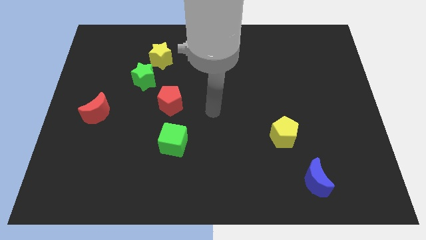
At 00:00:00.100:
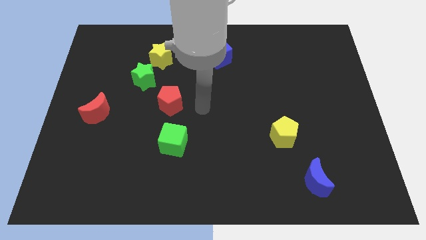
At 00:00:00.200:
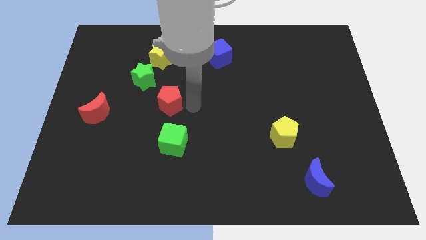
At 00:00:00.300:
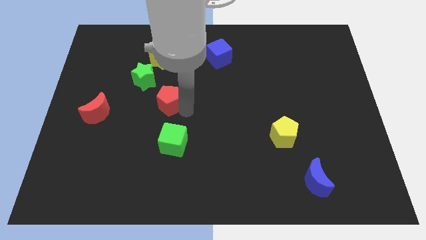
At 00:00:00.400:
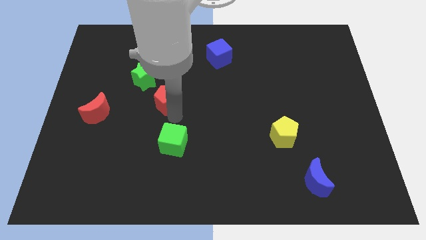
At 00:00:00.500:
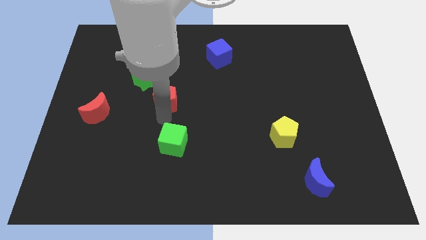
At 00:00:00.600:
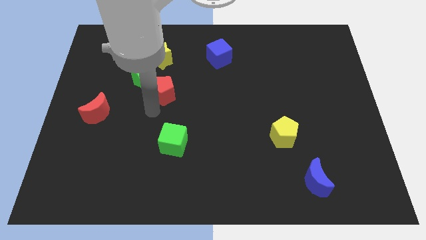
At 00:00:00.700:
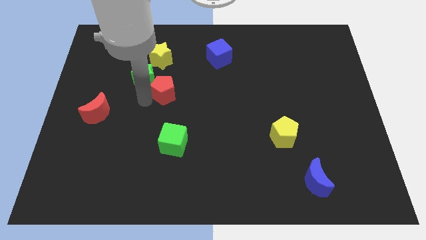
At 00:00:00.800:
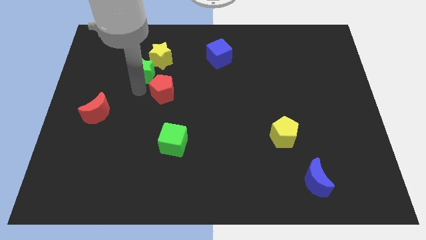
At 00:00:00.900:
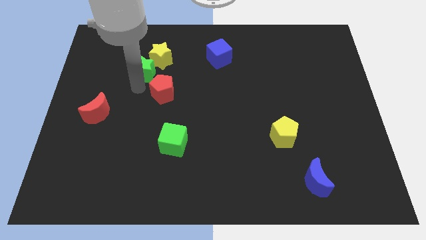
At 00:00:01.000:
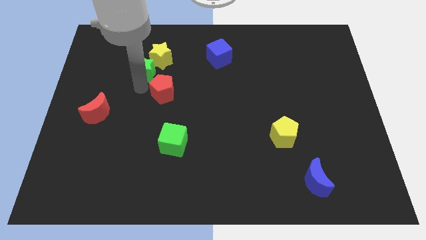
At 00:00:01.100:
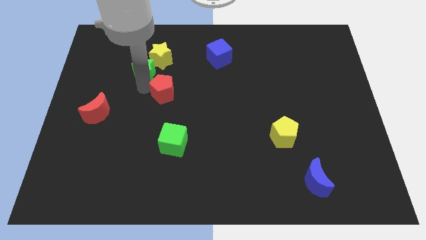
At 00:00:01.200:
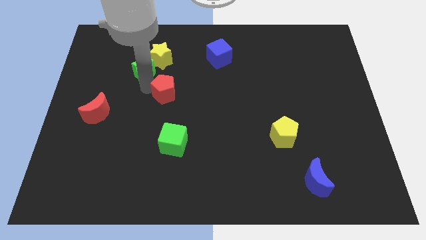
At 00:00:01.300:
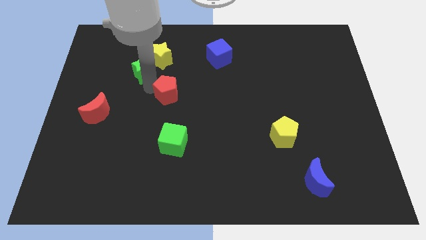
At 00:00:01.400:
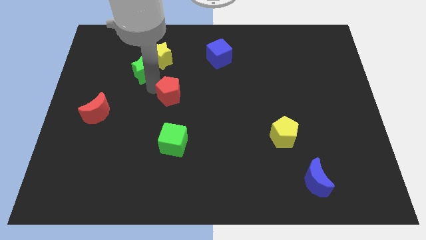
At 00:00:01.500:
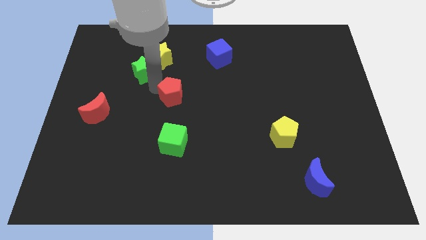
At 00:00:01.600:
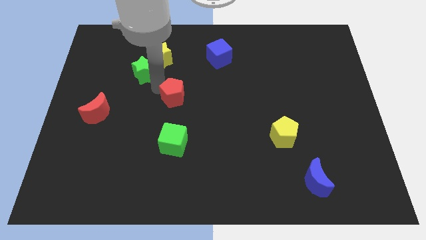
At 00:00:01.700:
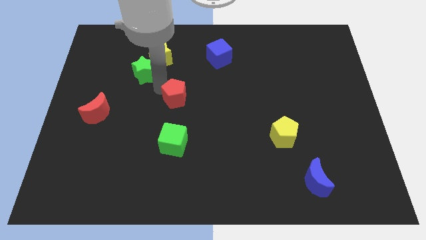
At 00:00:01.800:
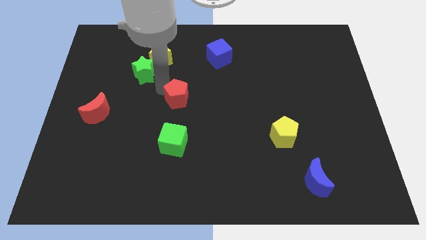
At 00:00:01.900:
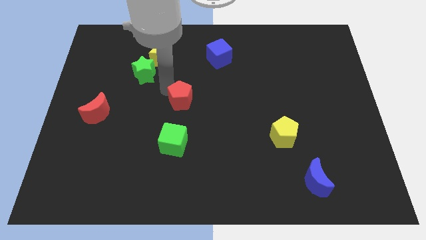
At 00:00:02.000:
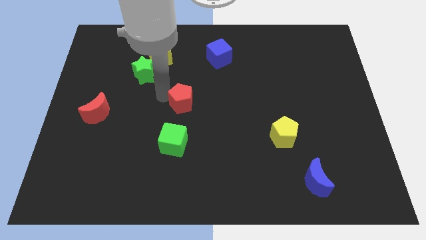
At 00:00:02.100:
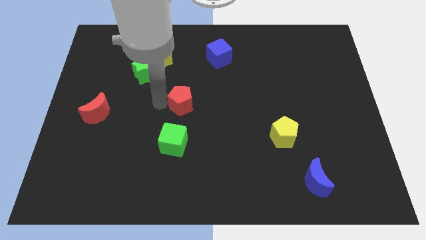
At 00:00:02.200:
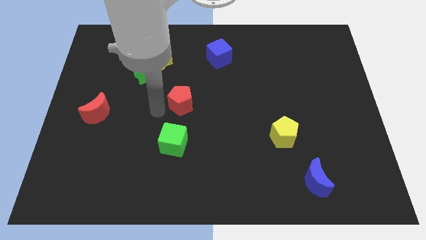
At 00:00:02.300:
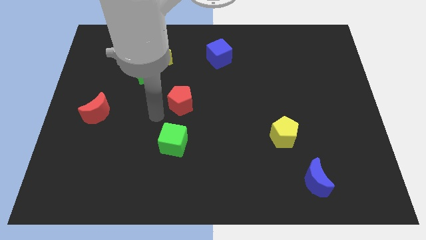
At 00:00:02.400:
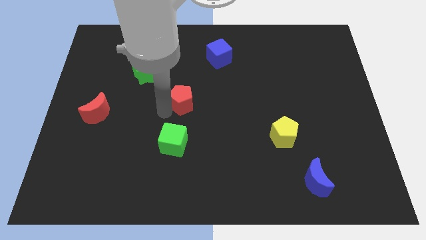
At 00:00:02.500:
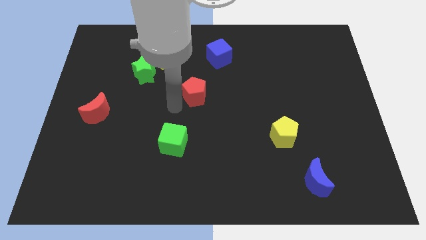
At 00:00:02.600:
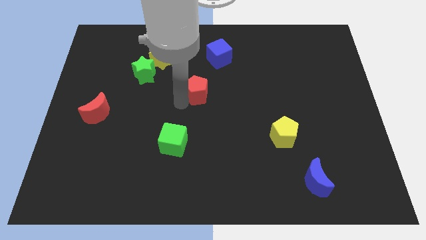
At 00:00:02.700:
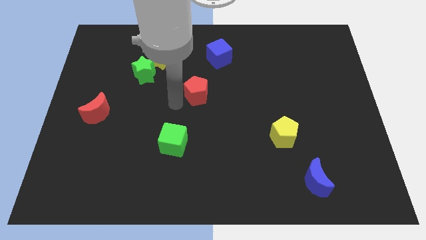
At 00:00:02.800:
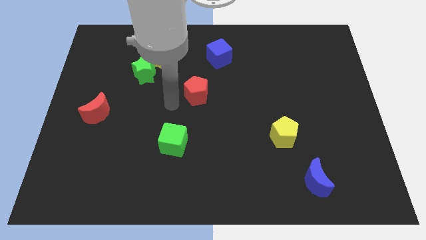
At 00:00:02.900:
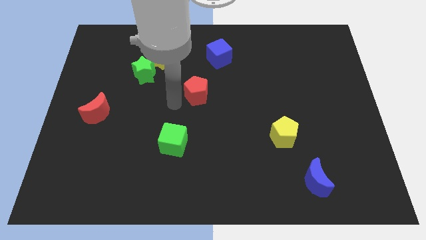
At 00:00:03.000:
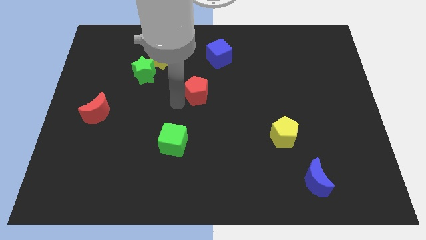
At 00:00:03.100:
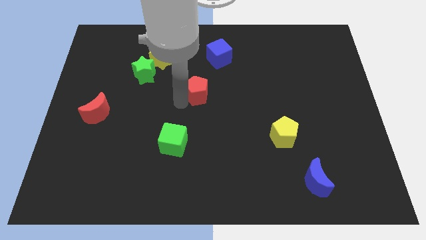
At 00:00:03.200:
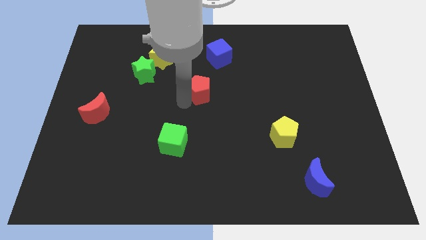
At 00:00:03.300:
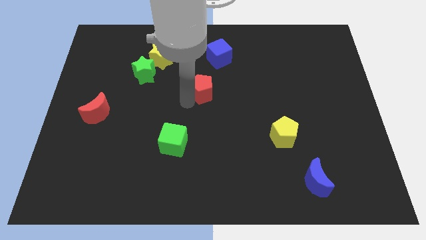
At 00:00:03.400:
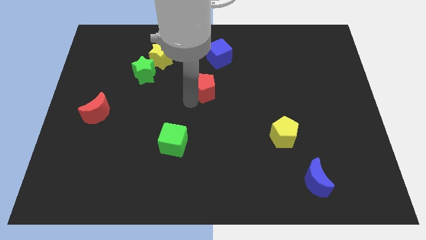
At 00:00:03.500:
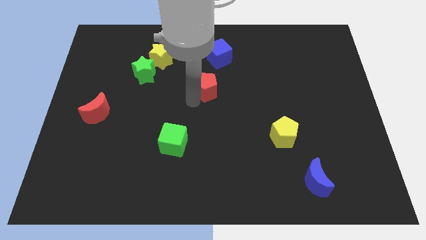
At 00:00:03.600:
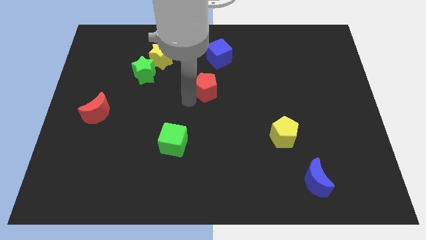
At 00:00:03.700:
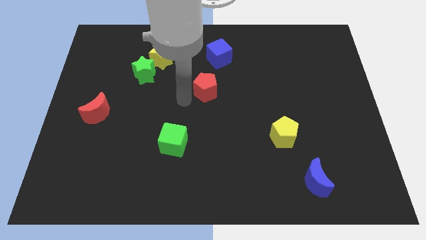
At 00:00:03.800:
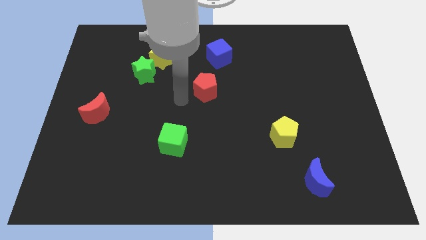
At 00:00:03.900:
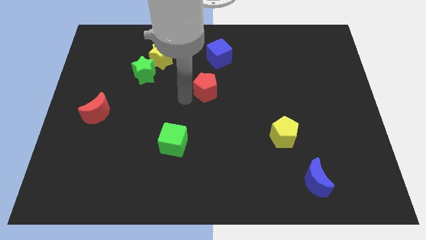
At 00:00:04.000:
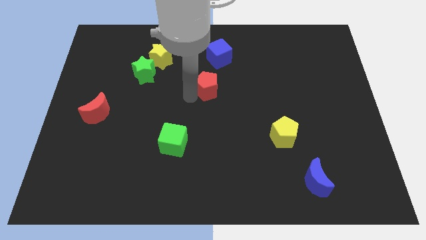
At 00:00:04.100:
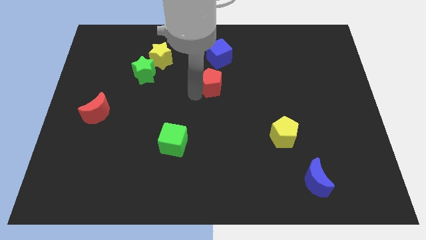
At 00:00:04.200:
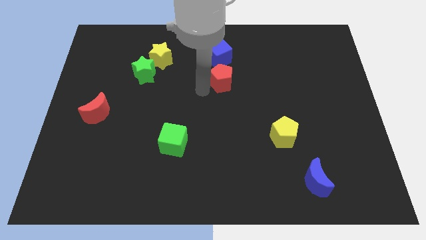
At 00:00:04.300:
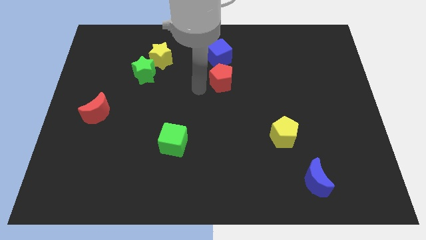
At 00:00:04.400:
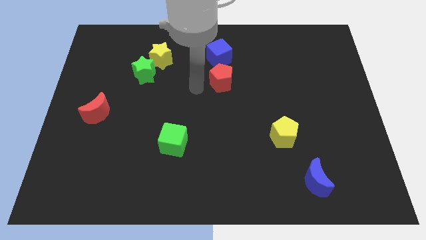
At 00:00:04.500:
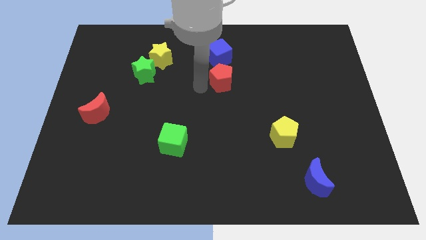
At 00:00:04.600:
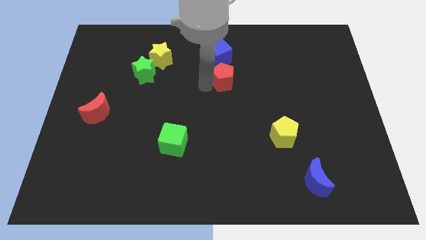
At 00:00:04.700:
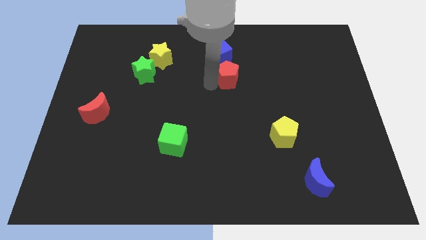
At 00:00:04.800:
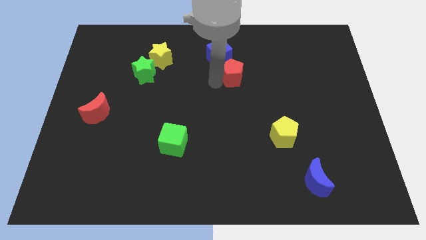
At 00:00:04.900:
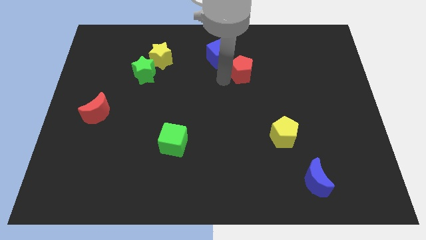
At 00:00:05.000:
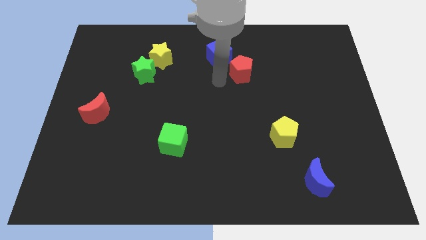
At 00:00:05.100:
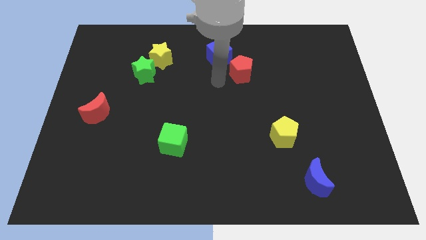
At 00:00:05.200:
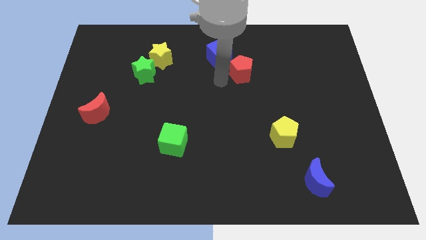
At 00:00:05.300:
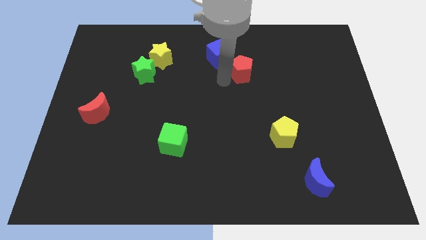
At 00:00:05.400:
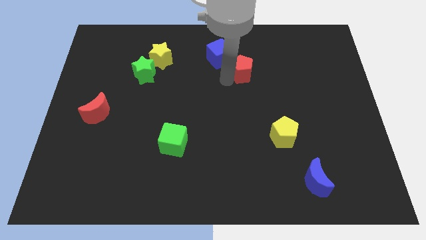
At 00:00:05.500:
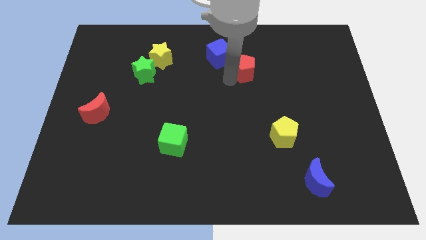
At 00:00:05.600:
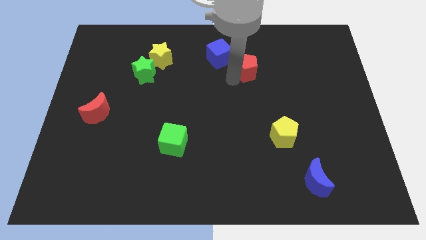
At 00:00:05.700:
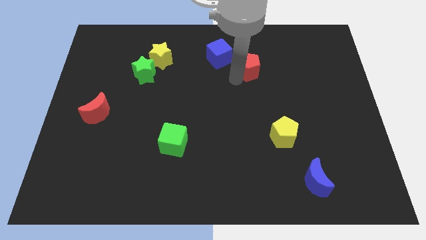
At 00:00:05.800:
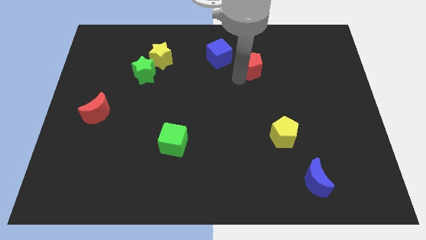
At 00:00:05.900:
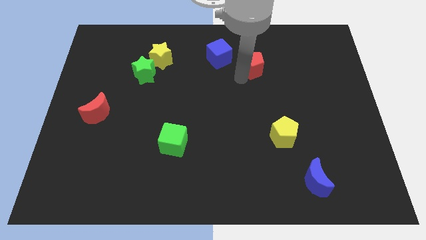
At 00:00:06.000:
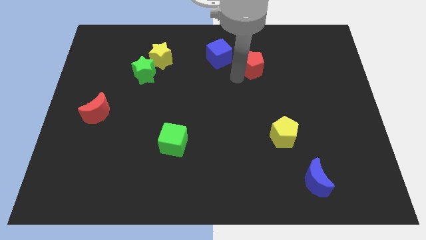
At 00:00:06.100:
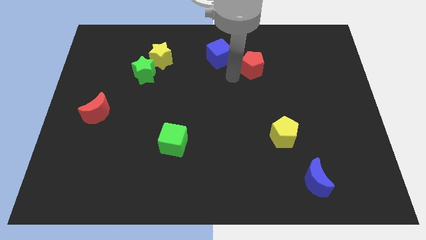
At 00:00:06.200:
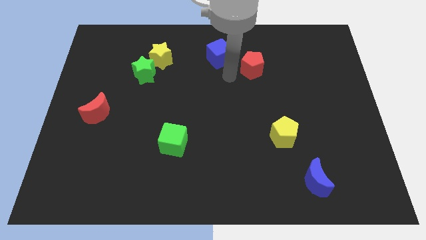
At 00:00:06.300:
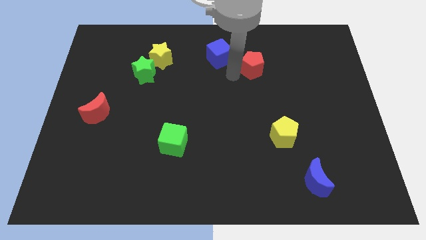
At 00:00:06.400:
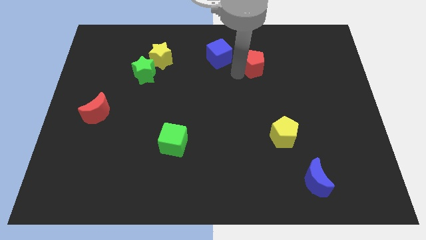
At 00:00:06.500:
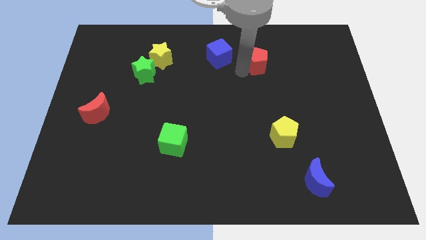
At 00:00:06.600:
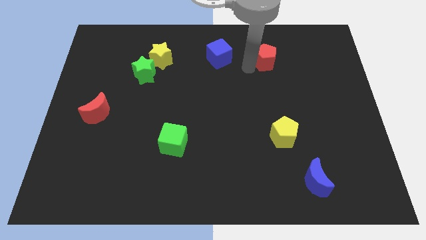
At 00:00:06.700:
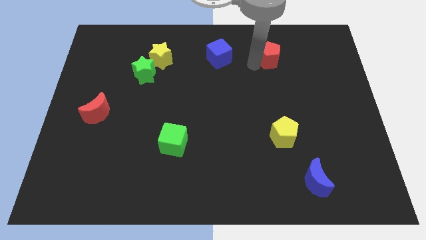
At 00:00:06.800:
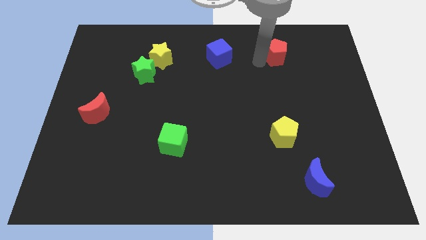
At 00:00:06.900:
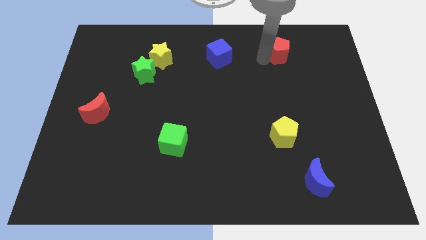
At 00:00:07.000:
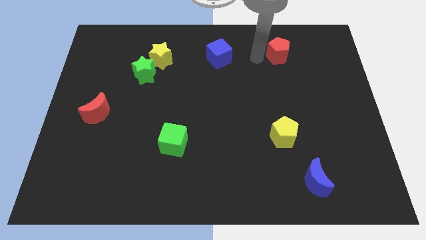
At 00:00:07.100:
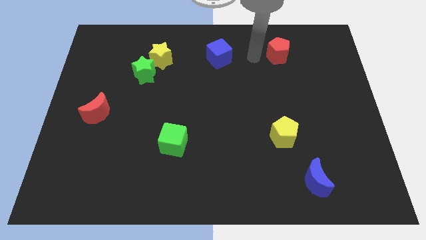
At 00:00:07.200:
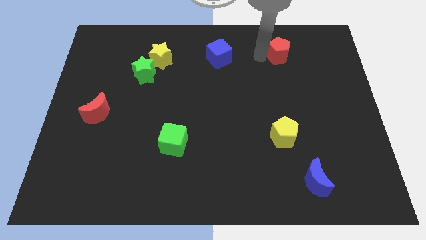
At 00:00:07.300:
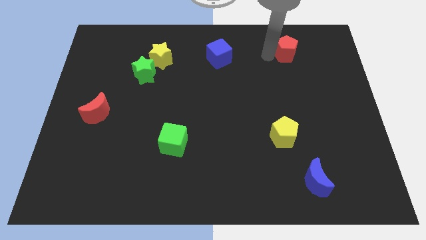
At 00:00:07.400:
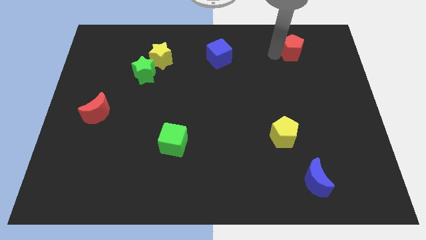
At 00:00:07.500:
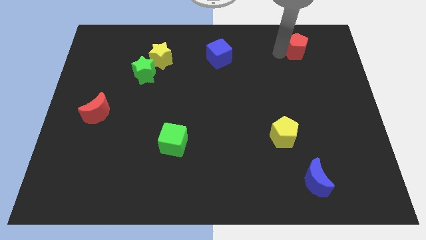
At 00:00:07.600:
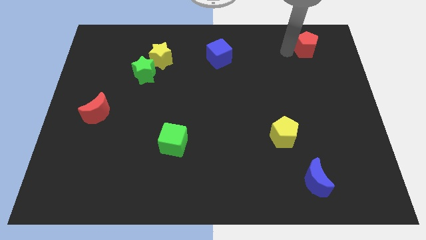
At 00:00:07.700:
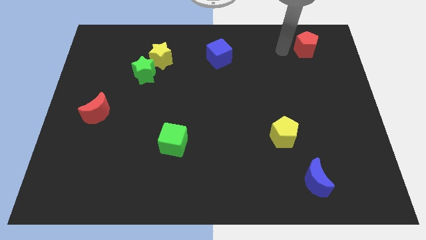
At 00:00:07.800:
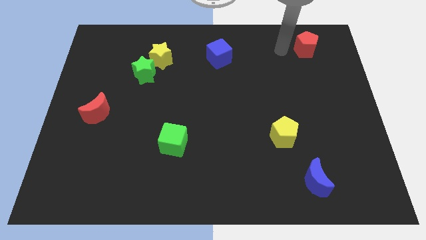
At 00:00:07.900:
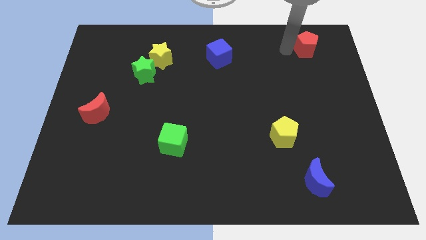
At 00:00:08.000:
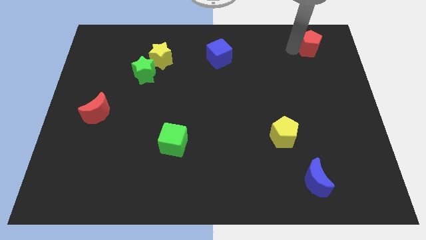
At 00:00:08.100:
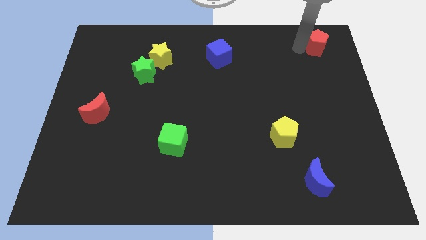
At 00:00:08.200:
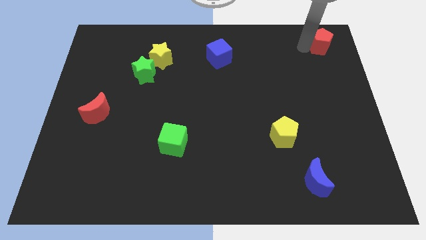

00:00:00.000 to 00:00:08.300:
move the red pentagon to the top right
